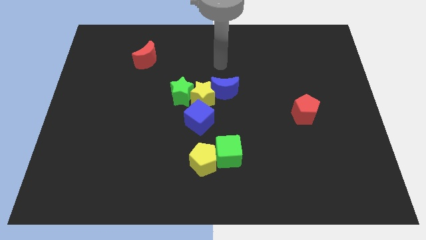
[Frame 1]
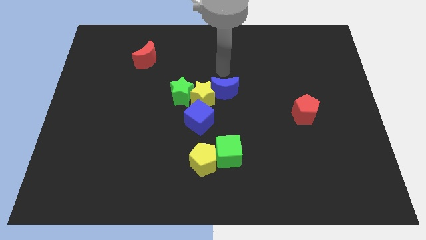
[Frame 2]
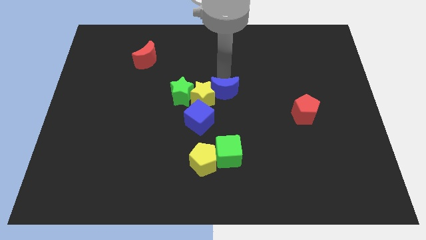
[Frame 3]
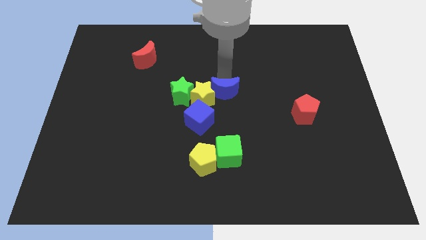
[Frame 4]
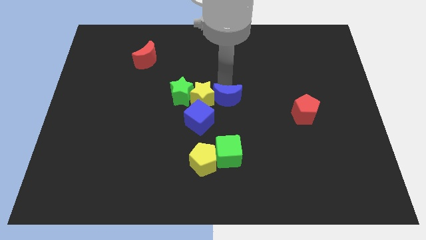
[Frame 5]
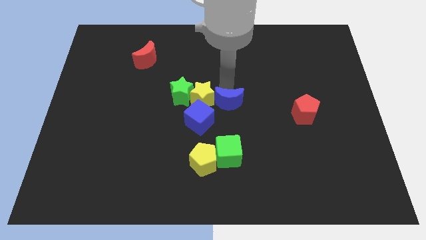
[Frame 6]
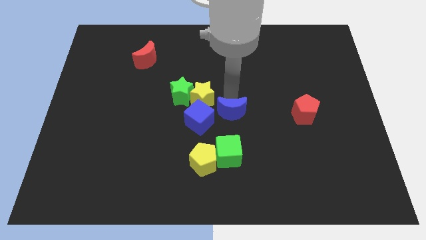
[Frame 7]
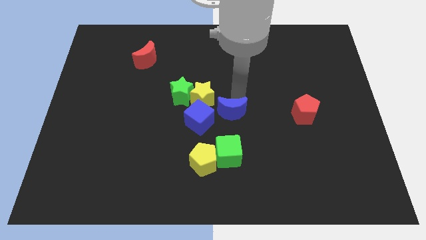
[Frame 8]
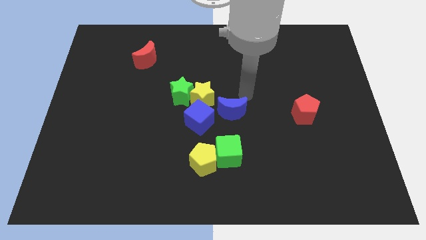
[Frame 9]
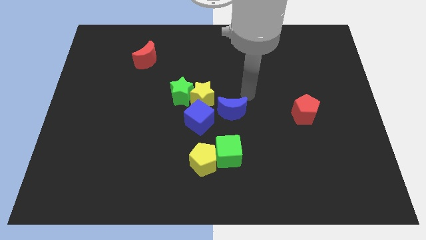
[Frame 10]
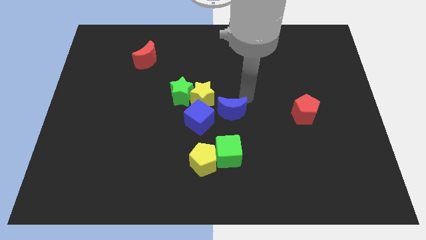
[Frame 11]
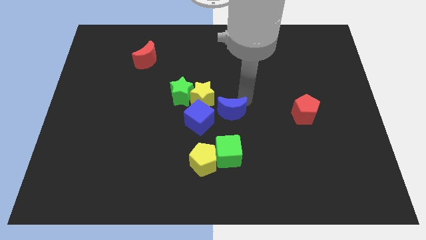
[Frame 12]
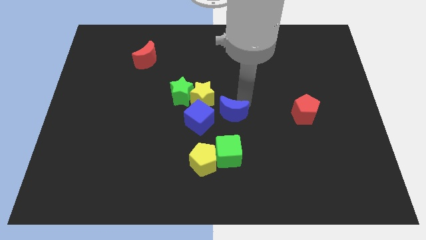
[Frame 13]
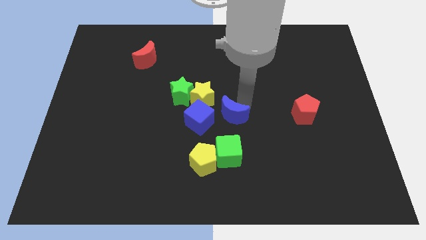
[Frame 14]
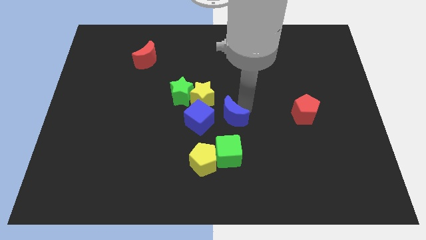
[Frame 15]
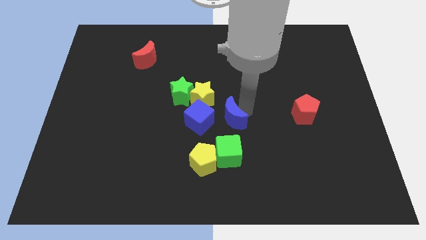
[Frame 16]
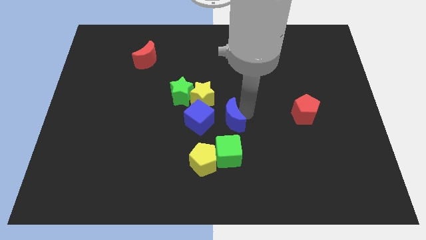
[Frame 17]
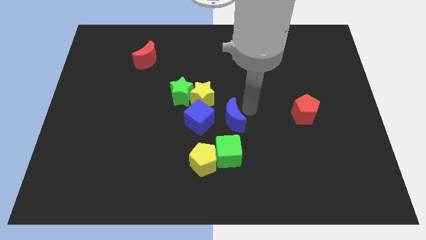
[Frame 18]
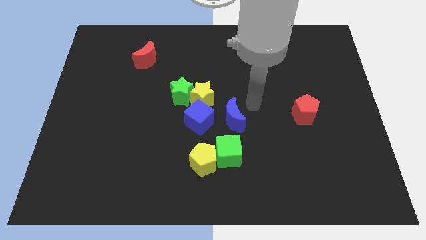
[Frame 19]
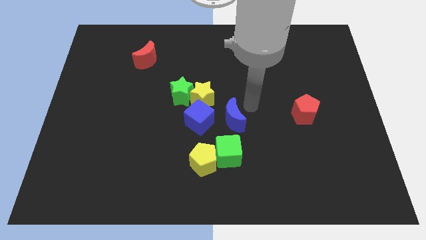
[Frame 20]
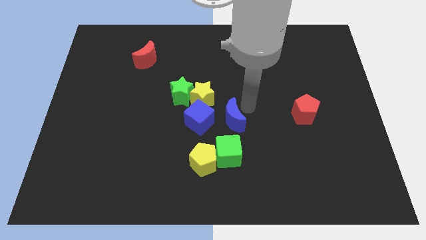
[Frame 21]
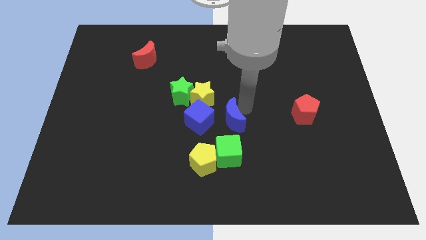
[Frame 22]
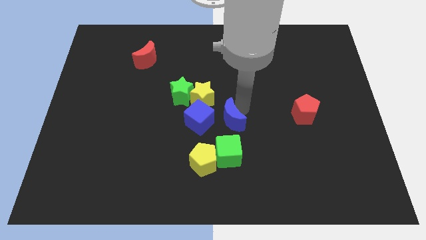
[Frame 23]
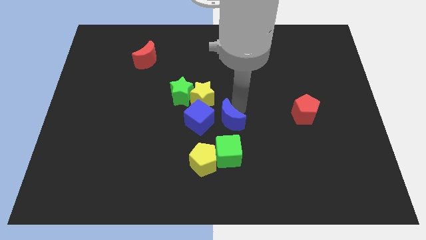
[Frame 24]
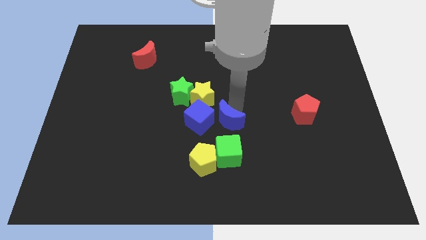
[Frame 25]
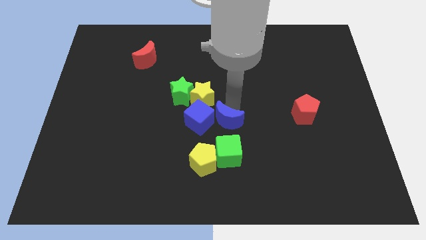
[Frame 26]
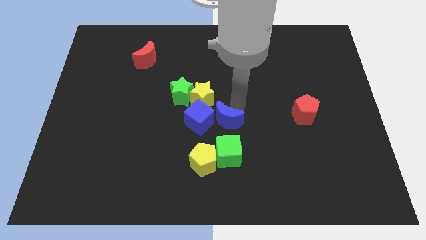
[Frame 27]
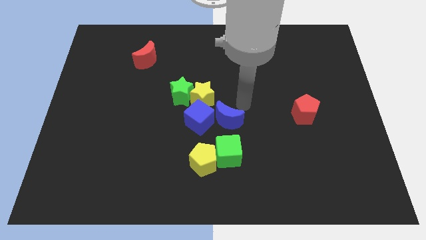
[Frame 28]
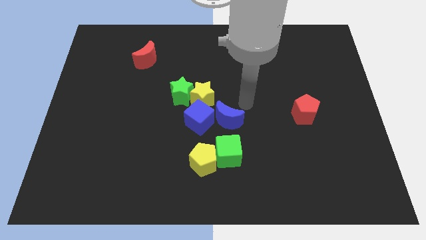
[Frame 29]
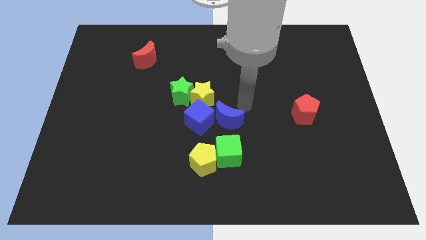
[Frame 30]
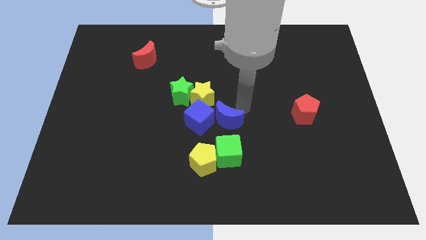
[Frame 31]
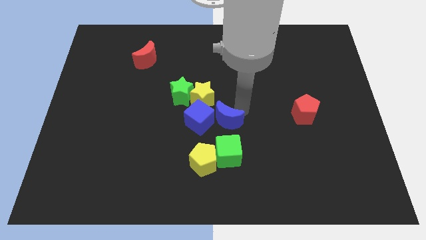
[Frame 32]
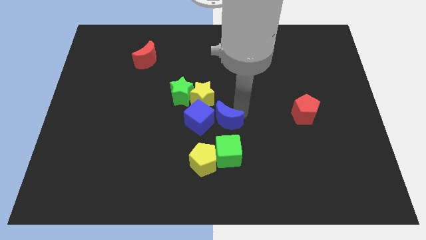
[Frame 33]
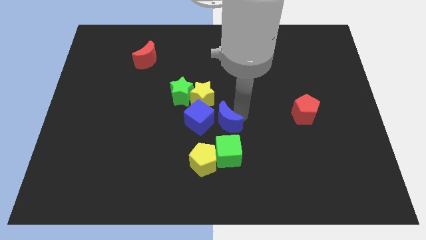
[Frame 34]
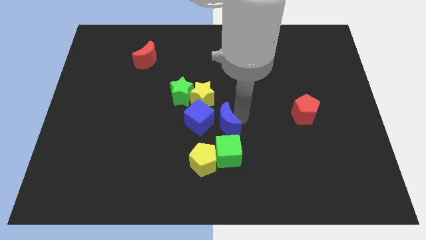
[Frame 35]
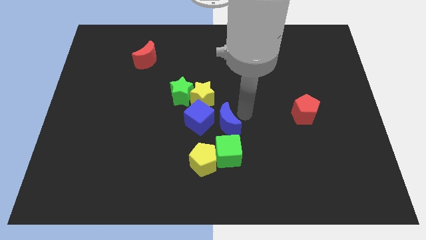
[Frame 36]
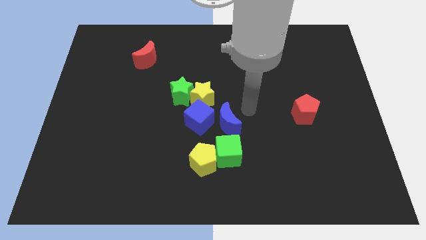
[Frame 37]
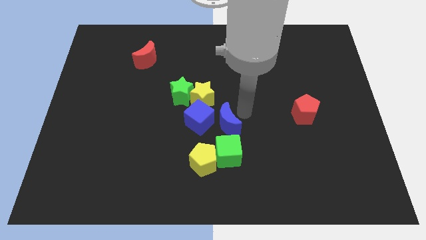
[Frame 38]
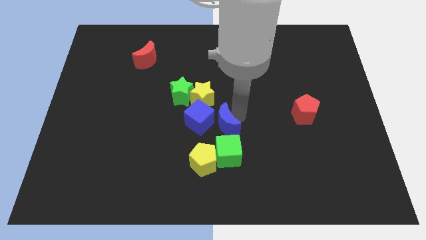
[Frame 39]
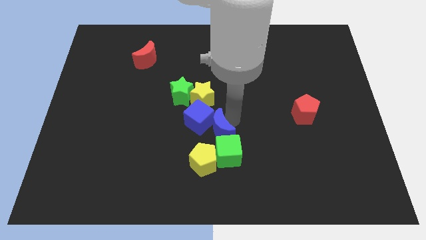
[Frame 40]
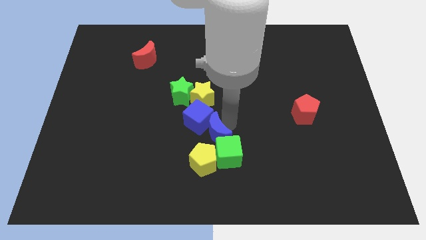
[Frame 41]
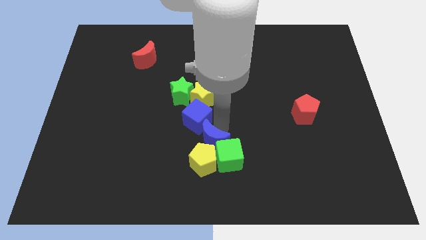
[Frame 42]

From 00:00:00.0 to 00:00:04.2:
slide the blue moon next to the yellow pentagon

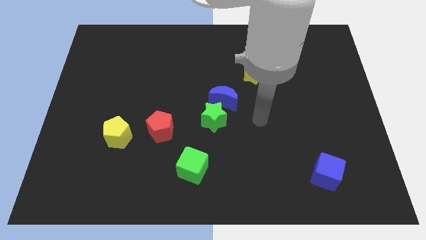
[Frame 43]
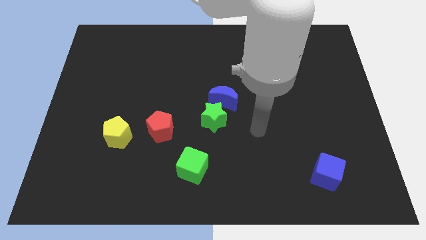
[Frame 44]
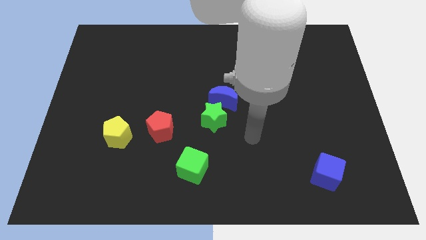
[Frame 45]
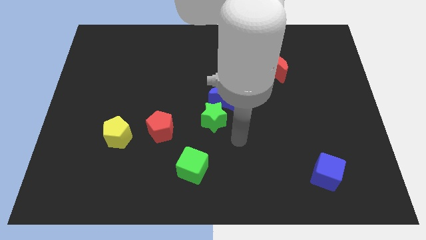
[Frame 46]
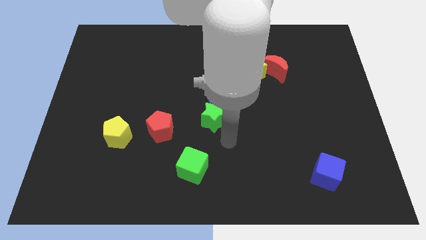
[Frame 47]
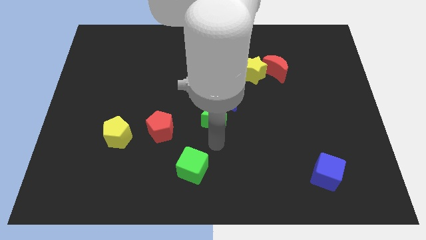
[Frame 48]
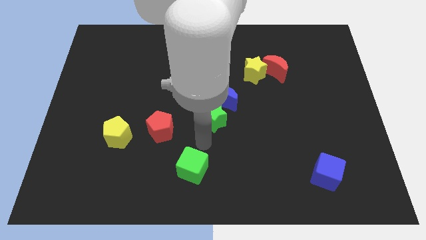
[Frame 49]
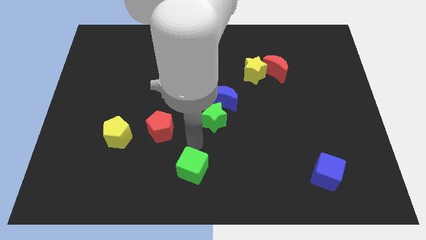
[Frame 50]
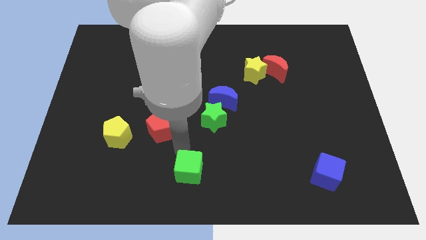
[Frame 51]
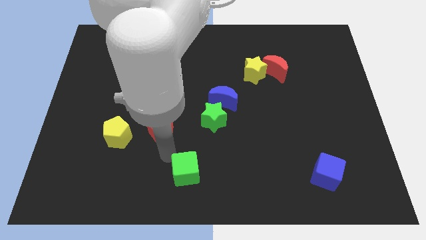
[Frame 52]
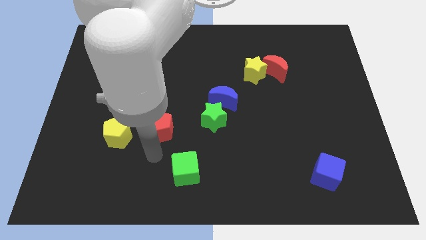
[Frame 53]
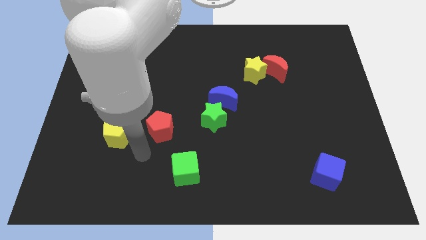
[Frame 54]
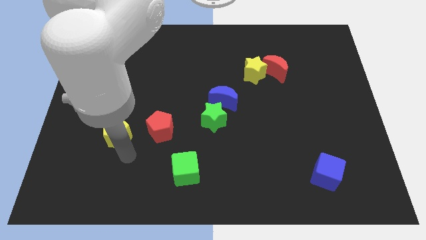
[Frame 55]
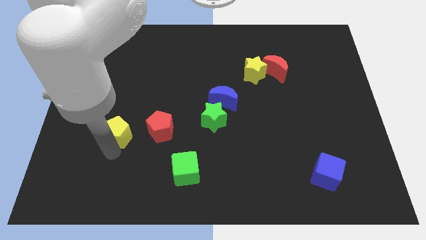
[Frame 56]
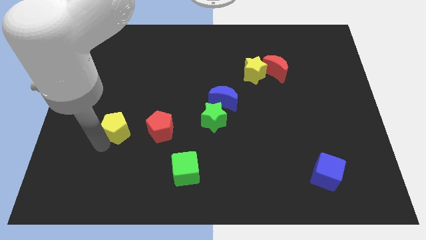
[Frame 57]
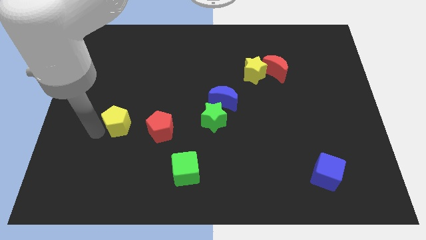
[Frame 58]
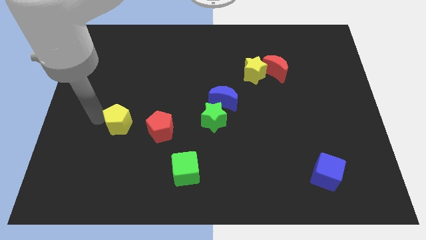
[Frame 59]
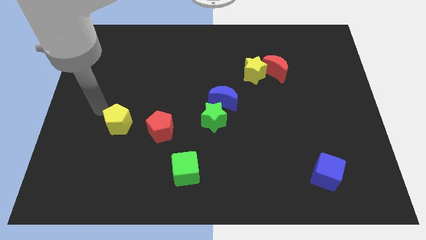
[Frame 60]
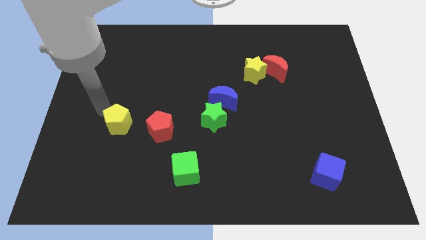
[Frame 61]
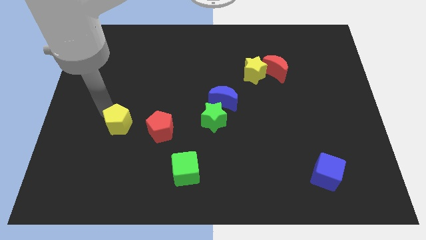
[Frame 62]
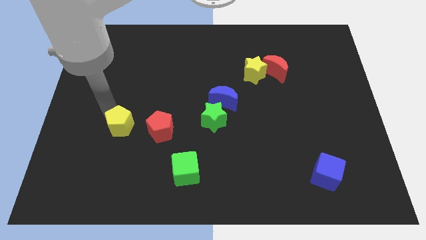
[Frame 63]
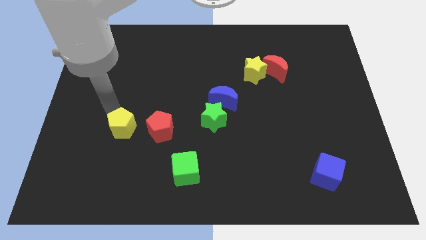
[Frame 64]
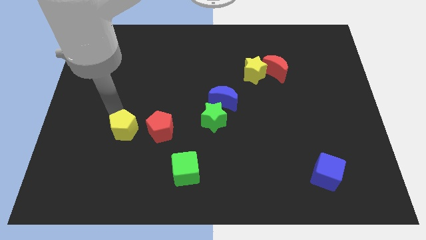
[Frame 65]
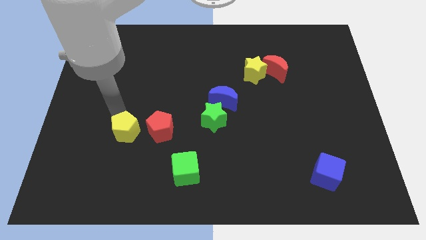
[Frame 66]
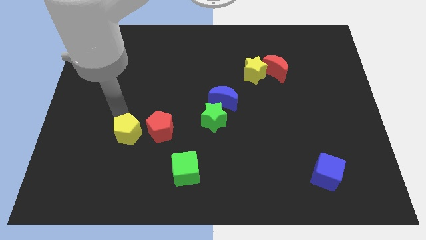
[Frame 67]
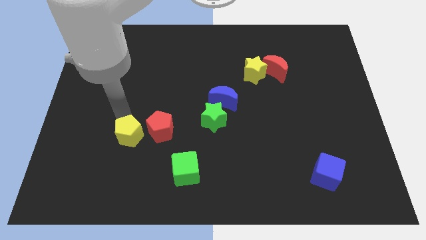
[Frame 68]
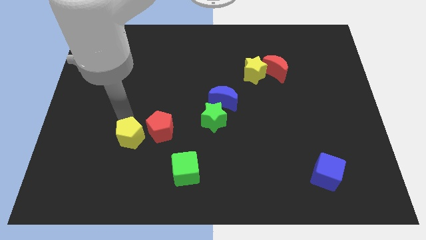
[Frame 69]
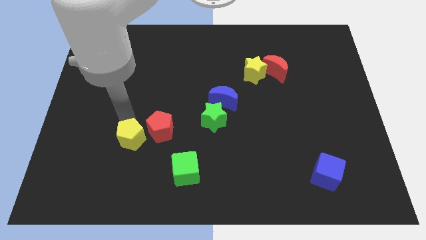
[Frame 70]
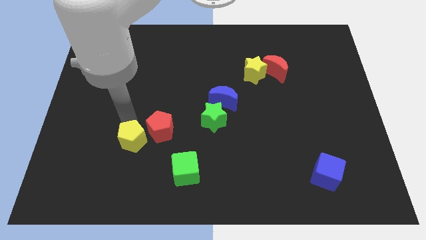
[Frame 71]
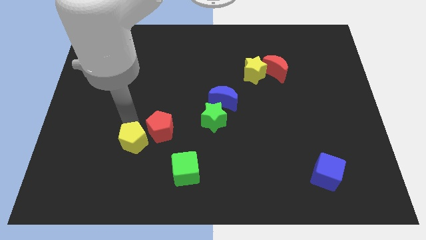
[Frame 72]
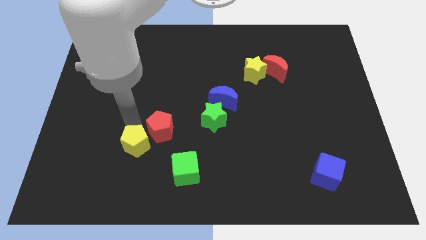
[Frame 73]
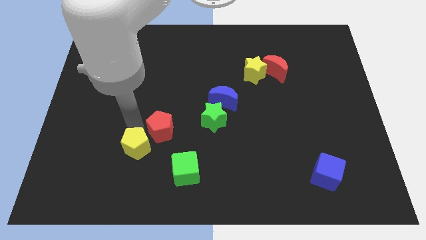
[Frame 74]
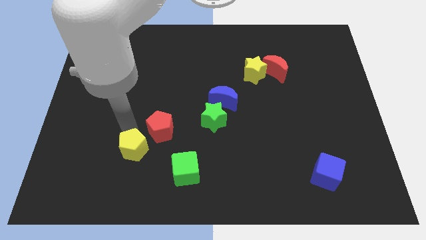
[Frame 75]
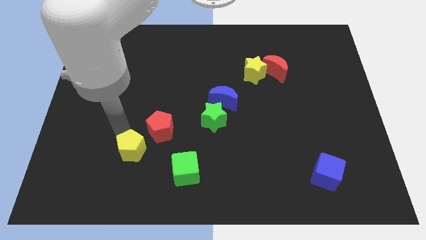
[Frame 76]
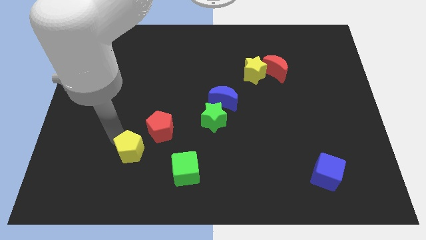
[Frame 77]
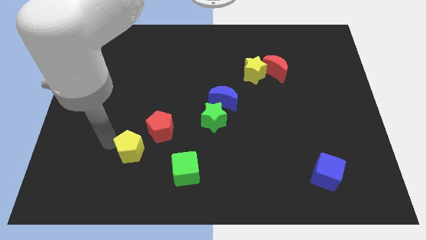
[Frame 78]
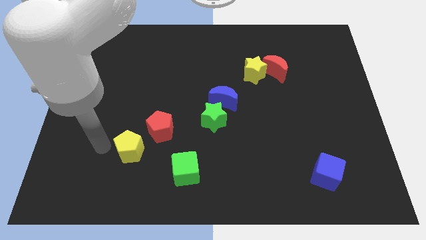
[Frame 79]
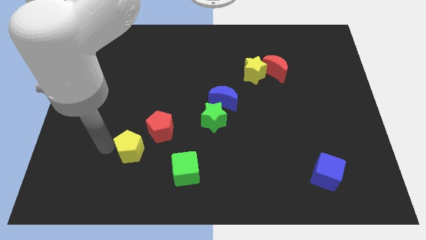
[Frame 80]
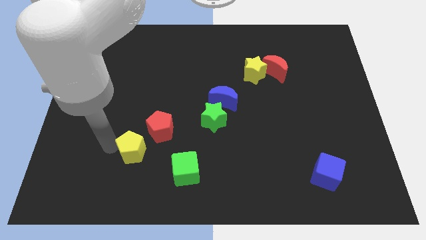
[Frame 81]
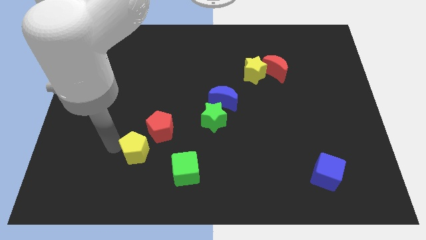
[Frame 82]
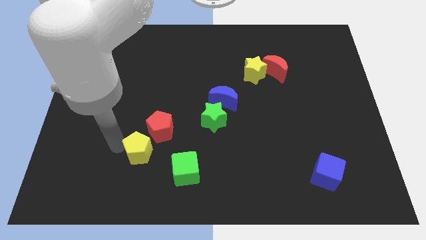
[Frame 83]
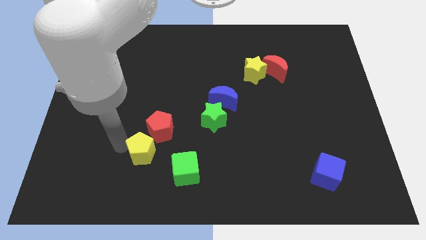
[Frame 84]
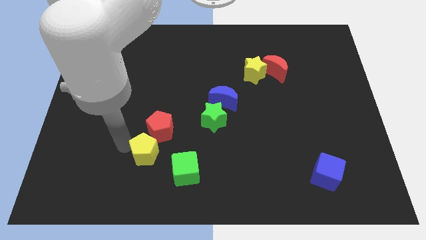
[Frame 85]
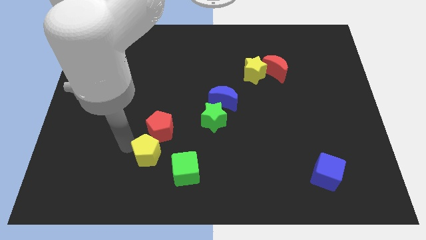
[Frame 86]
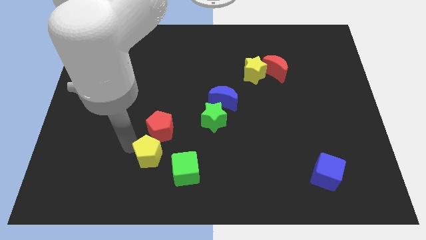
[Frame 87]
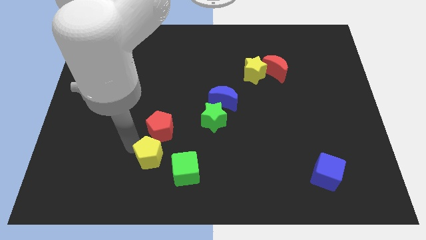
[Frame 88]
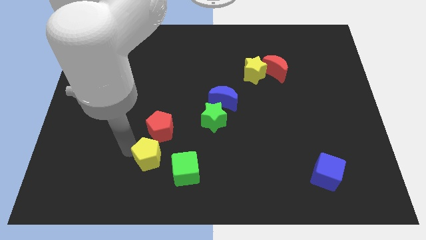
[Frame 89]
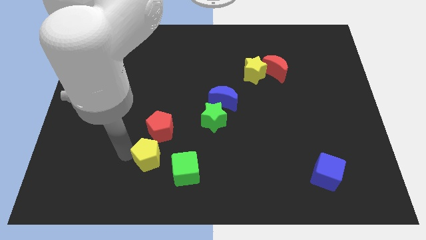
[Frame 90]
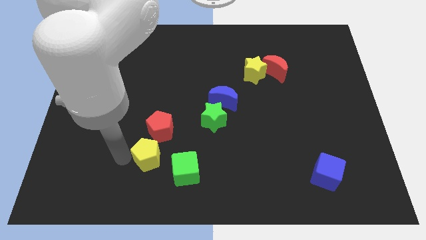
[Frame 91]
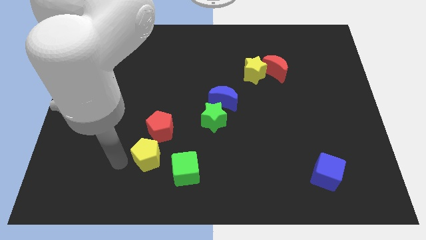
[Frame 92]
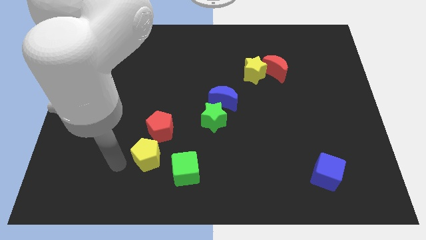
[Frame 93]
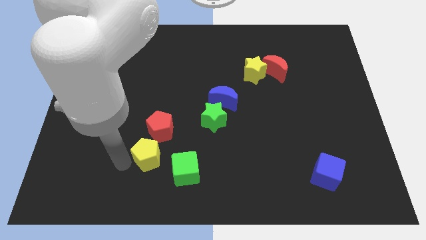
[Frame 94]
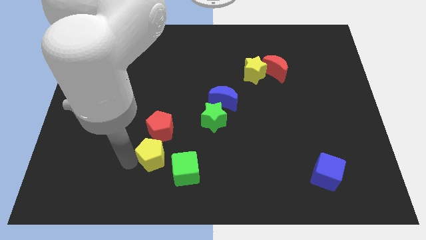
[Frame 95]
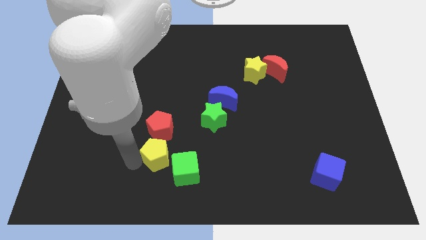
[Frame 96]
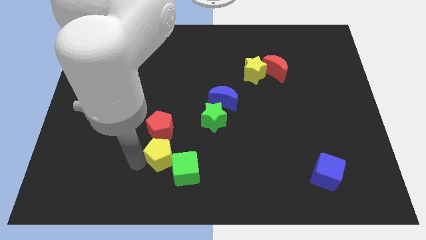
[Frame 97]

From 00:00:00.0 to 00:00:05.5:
move the yellow pentagon next to the green cube
